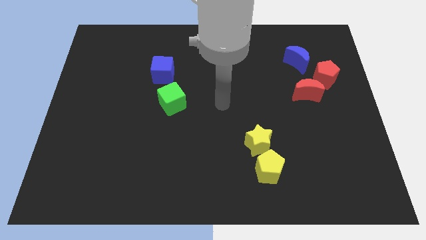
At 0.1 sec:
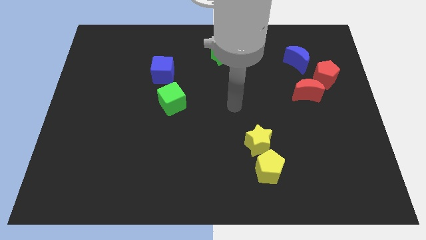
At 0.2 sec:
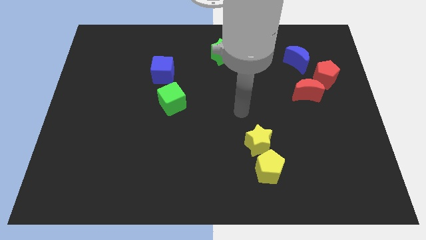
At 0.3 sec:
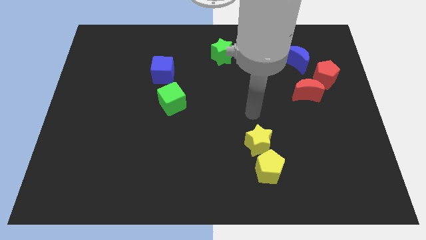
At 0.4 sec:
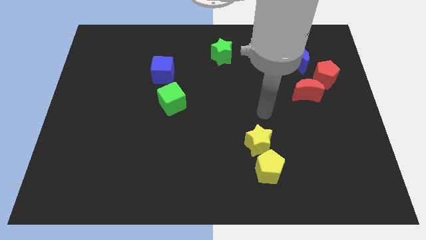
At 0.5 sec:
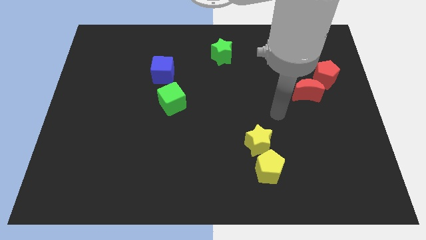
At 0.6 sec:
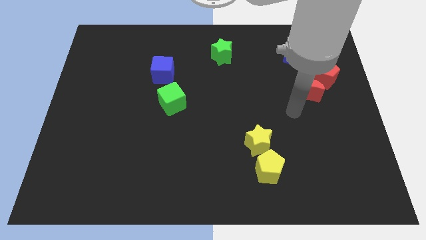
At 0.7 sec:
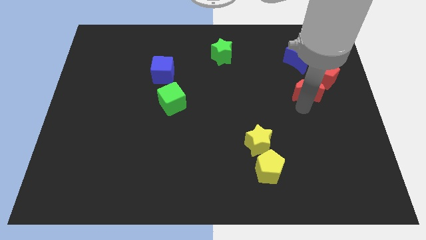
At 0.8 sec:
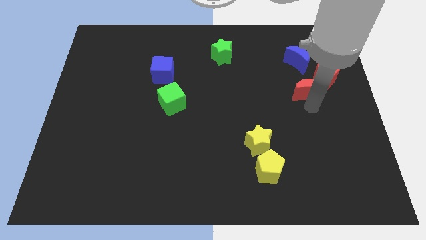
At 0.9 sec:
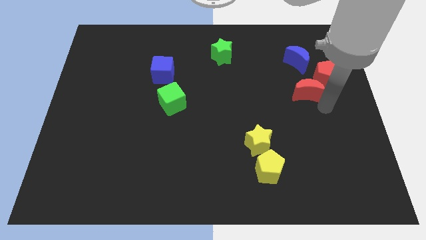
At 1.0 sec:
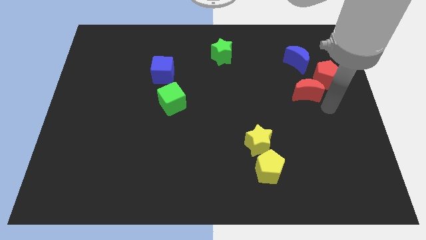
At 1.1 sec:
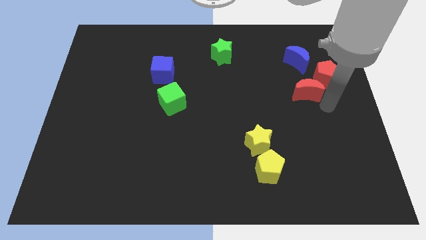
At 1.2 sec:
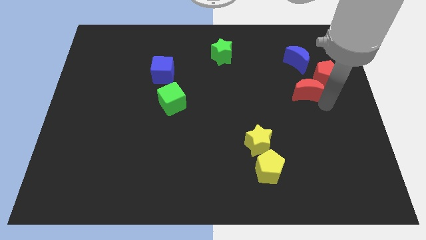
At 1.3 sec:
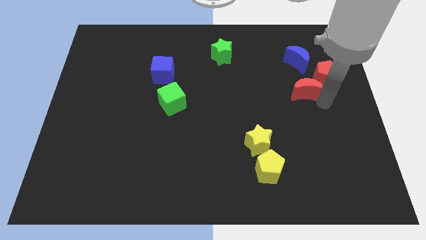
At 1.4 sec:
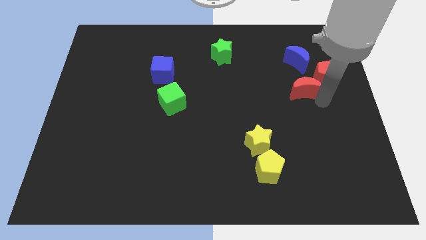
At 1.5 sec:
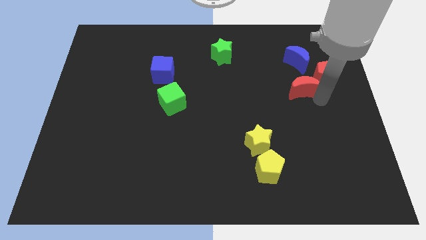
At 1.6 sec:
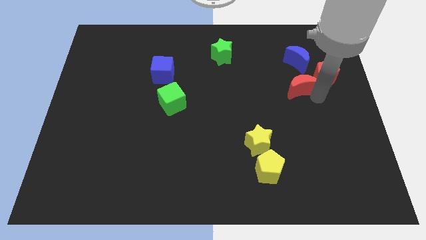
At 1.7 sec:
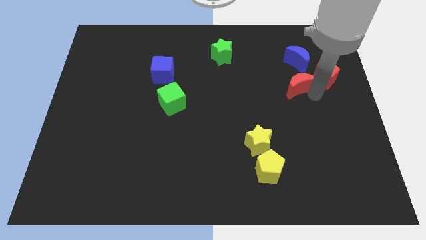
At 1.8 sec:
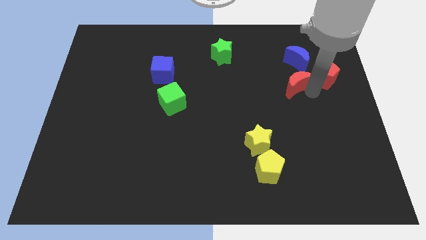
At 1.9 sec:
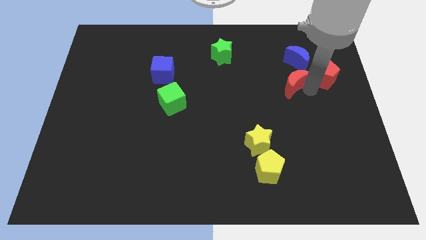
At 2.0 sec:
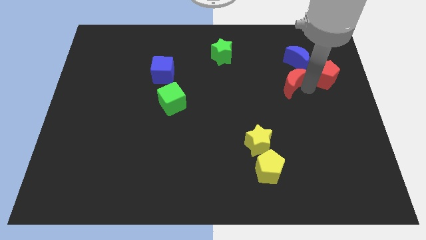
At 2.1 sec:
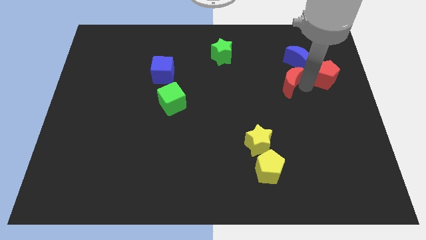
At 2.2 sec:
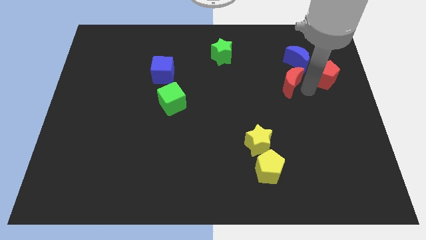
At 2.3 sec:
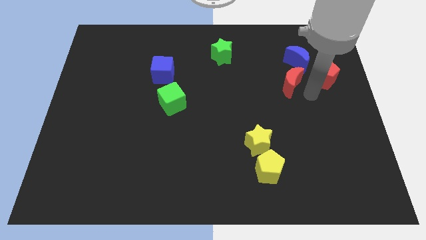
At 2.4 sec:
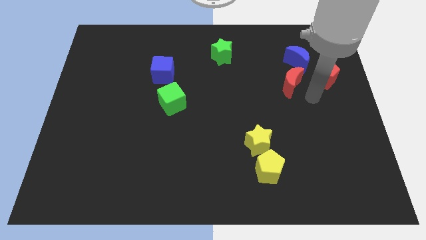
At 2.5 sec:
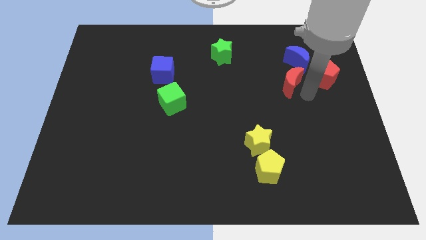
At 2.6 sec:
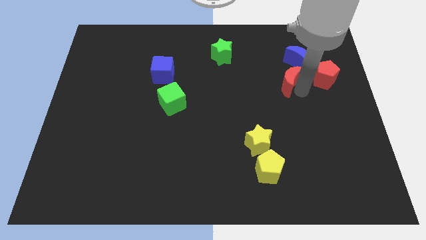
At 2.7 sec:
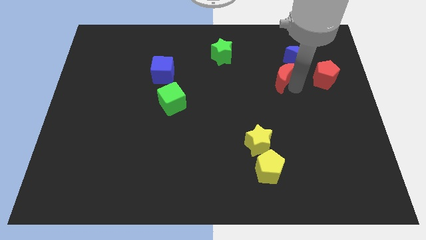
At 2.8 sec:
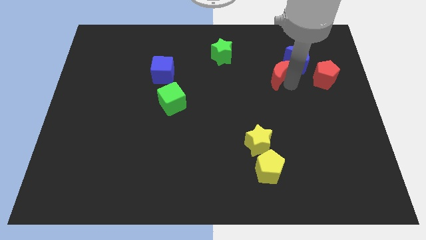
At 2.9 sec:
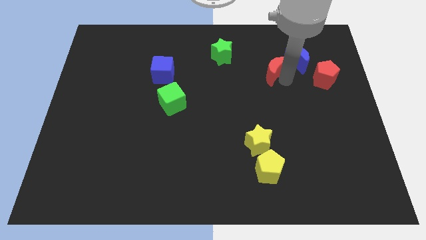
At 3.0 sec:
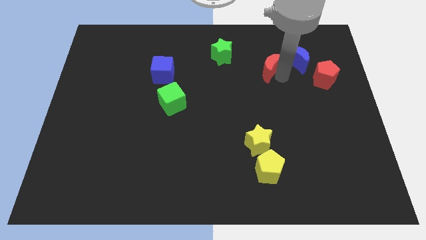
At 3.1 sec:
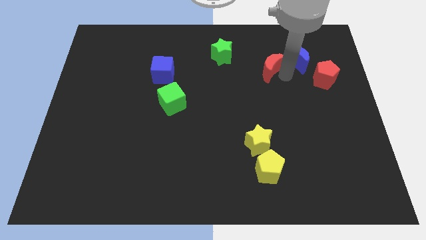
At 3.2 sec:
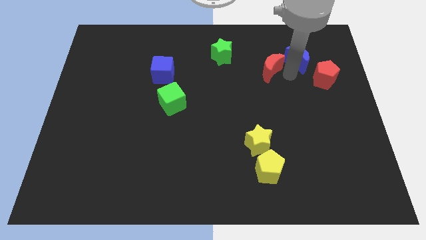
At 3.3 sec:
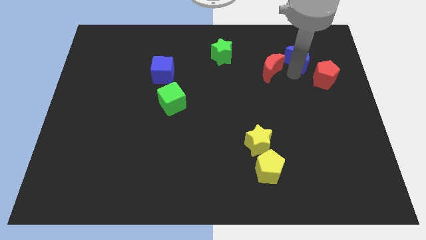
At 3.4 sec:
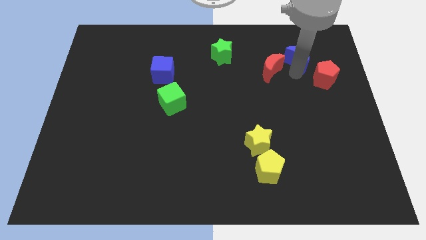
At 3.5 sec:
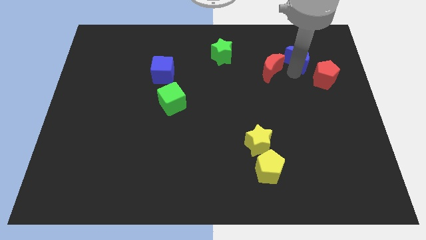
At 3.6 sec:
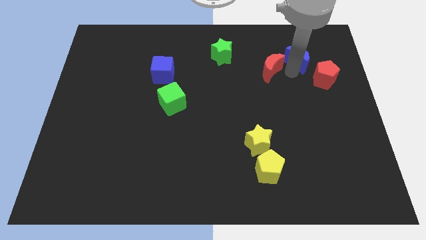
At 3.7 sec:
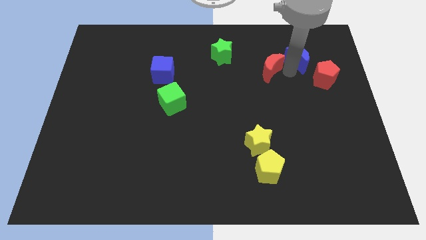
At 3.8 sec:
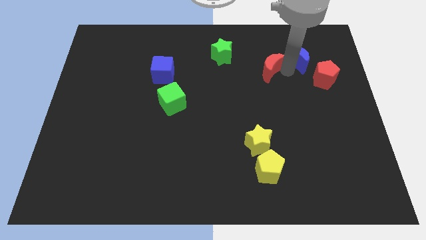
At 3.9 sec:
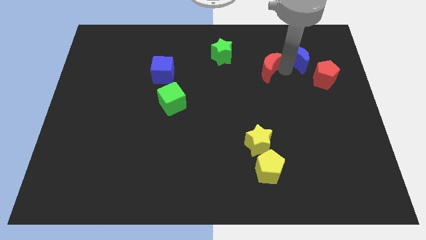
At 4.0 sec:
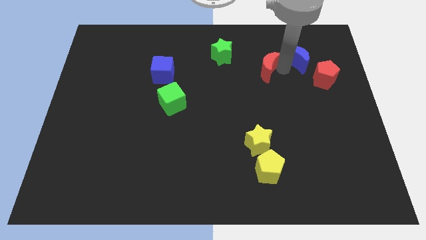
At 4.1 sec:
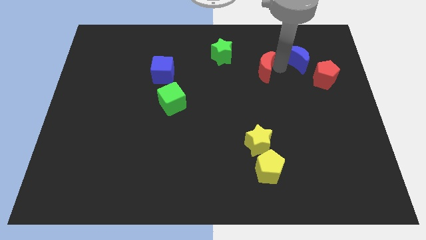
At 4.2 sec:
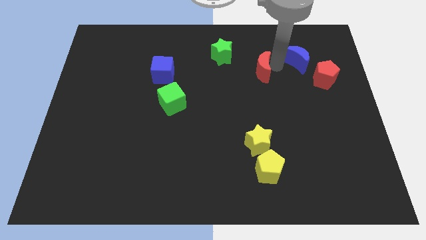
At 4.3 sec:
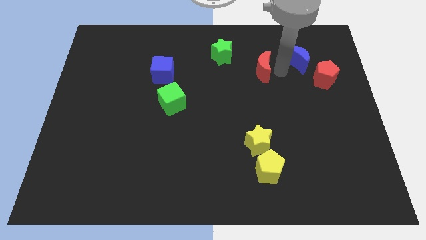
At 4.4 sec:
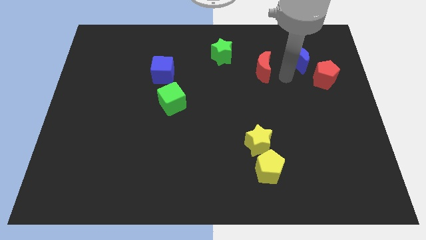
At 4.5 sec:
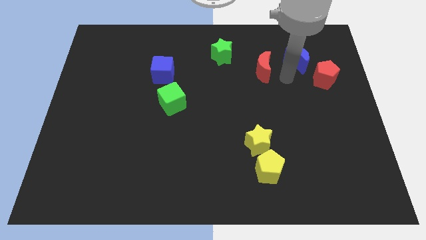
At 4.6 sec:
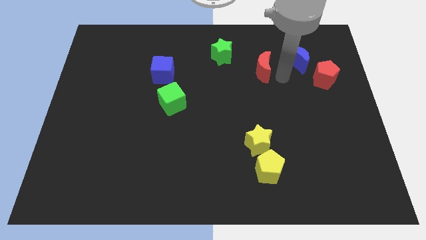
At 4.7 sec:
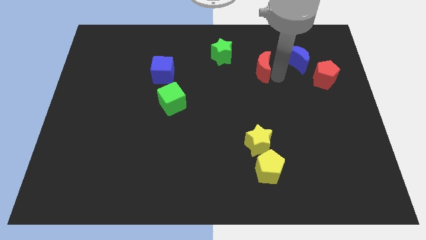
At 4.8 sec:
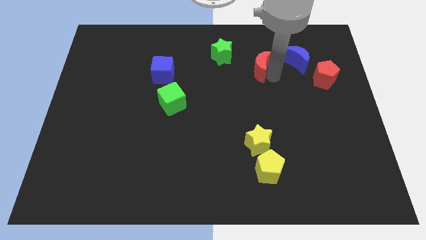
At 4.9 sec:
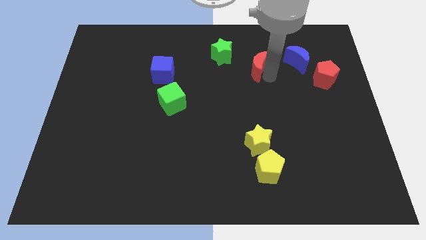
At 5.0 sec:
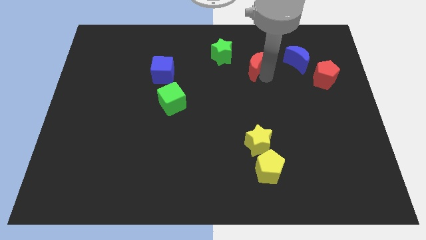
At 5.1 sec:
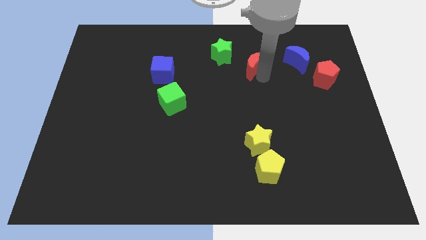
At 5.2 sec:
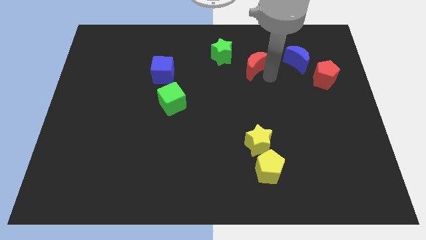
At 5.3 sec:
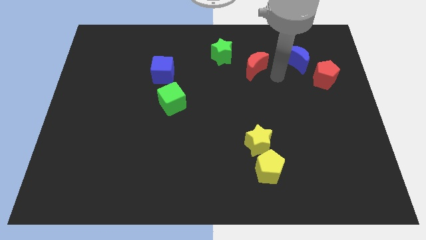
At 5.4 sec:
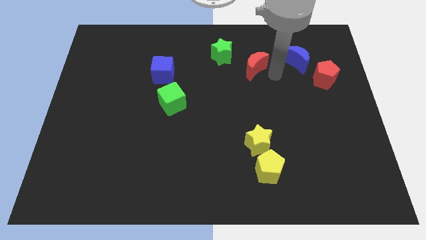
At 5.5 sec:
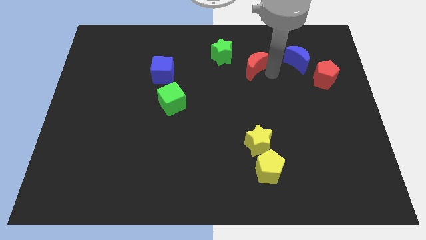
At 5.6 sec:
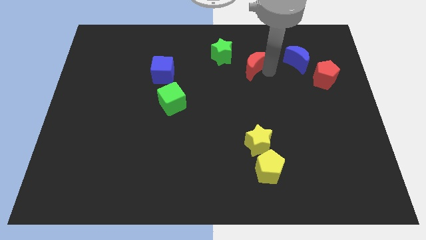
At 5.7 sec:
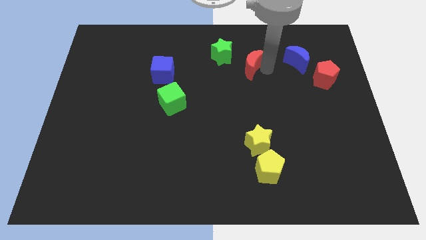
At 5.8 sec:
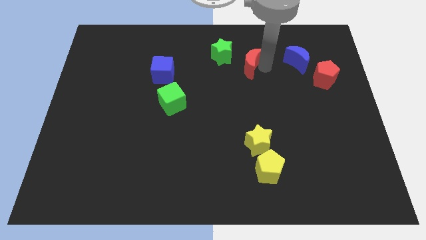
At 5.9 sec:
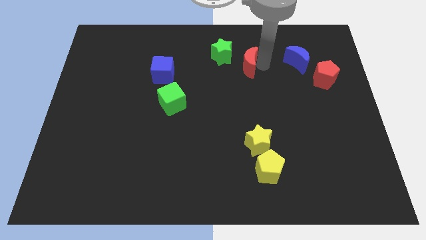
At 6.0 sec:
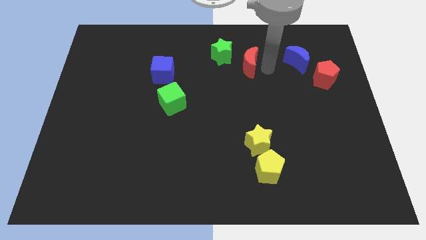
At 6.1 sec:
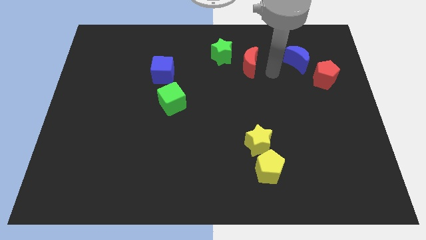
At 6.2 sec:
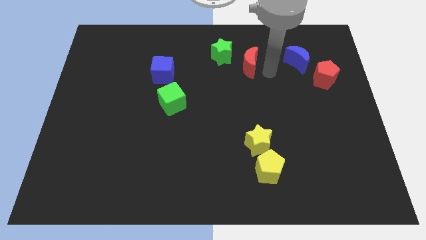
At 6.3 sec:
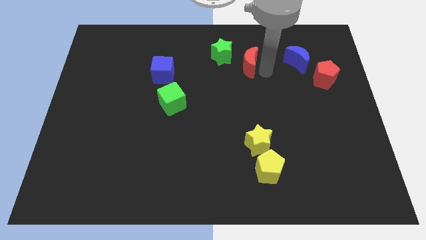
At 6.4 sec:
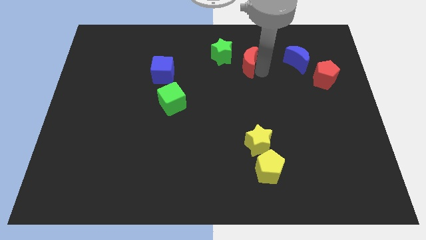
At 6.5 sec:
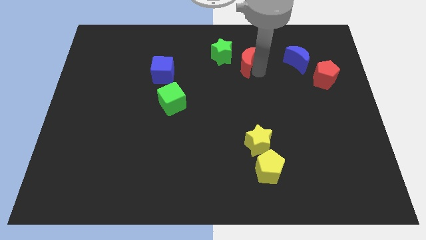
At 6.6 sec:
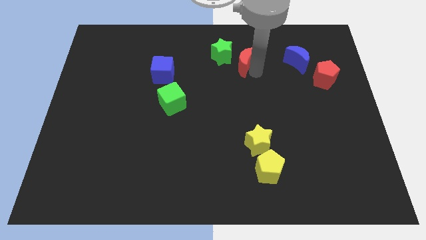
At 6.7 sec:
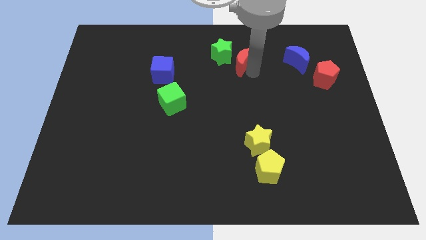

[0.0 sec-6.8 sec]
slide the red moon next to the green star

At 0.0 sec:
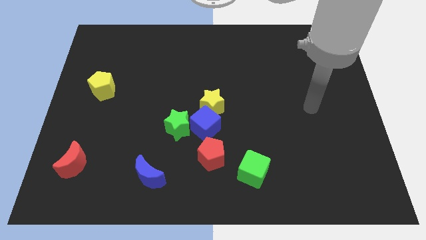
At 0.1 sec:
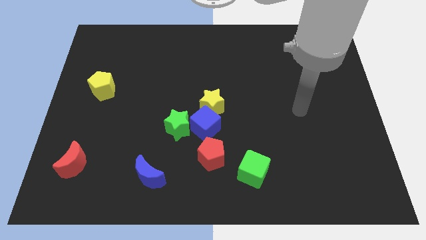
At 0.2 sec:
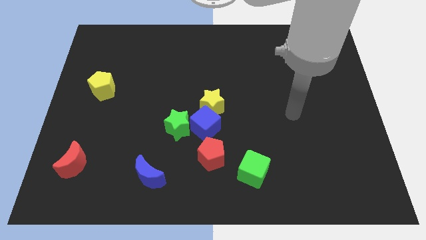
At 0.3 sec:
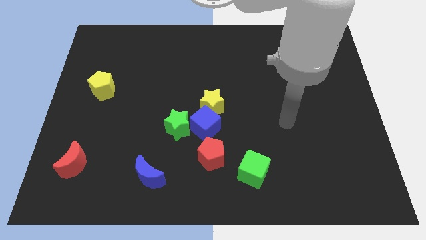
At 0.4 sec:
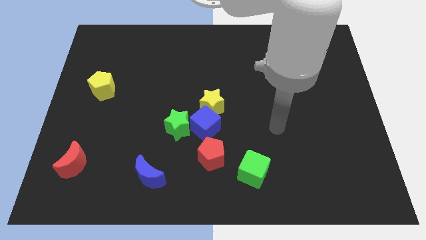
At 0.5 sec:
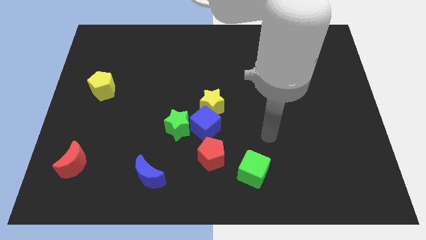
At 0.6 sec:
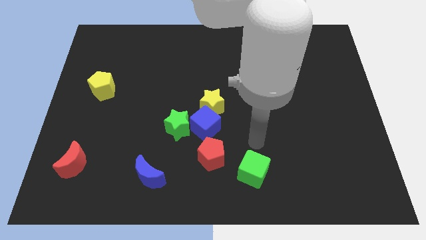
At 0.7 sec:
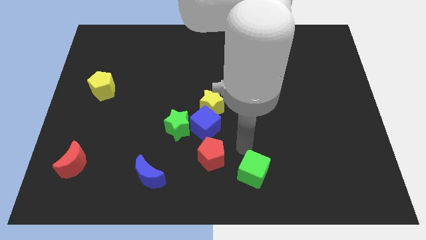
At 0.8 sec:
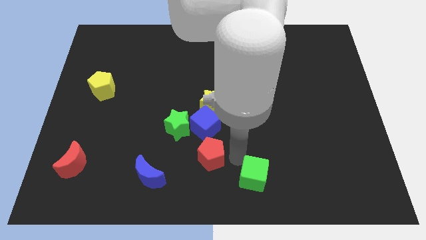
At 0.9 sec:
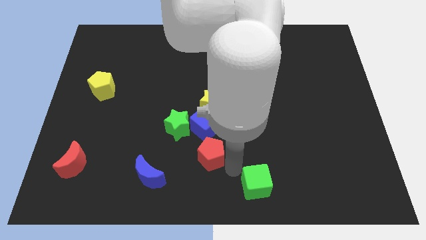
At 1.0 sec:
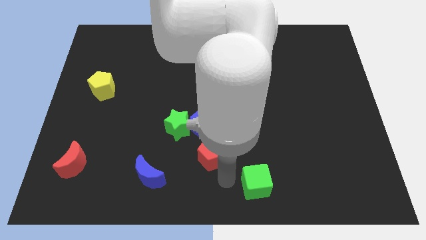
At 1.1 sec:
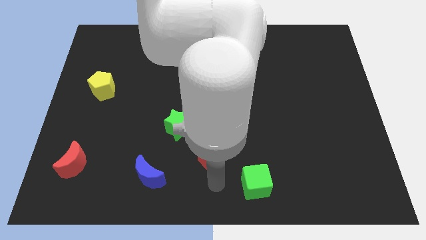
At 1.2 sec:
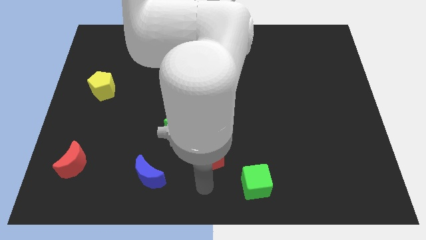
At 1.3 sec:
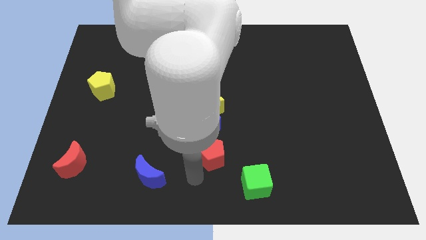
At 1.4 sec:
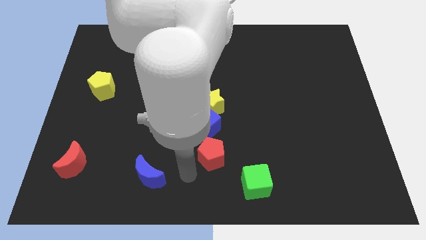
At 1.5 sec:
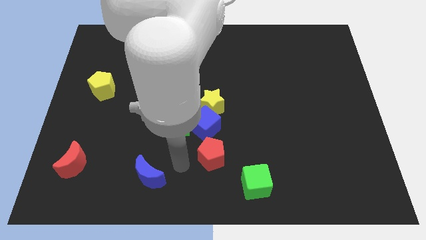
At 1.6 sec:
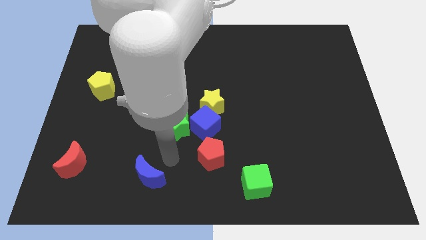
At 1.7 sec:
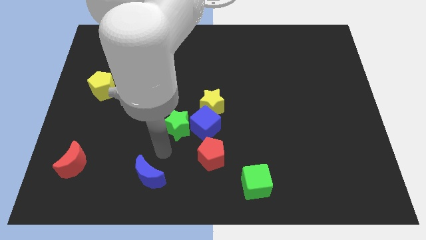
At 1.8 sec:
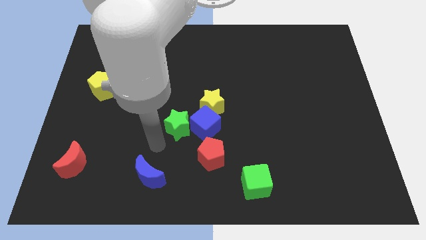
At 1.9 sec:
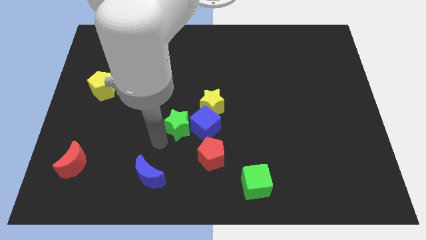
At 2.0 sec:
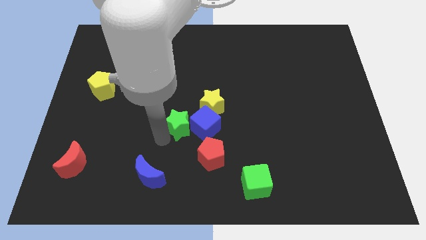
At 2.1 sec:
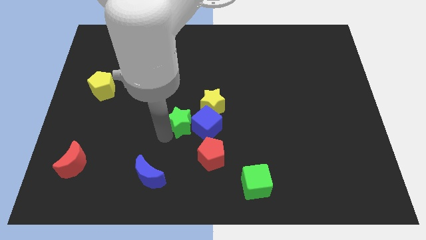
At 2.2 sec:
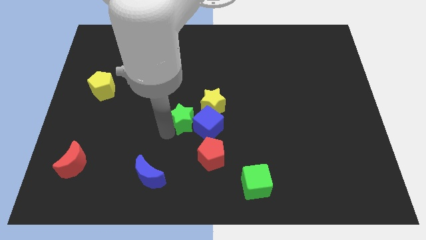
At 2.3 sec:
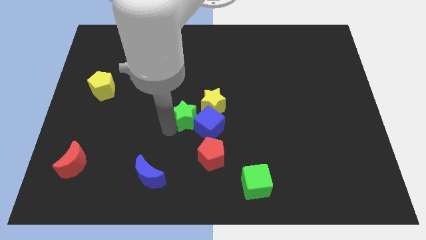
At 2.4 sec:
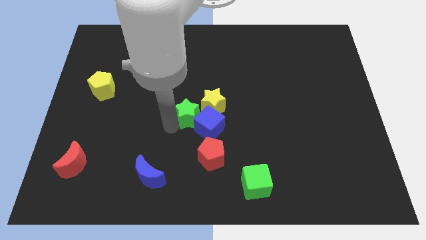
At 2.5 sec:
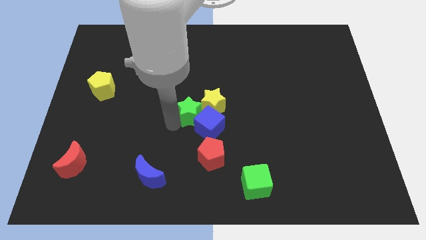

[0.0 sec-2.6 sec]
push the green star next to the yellow star
